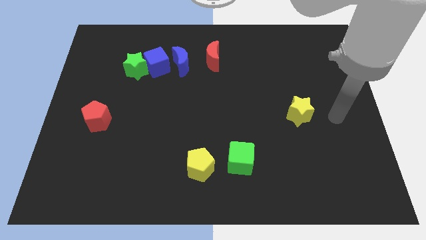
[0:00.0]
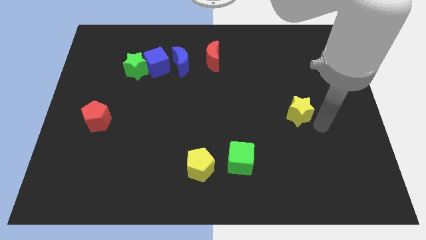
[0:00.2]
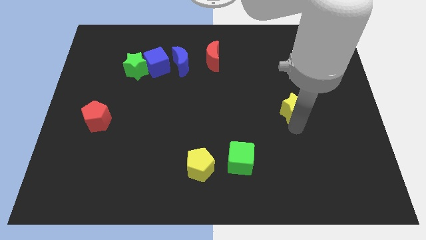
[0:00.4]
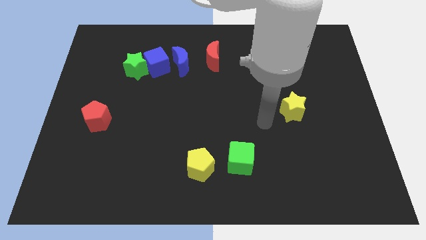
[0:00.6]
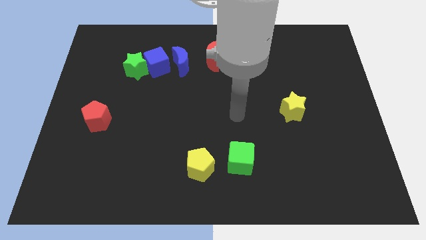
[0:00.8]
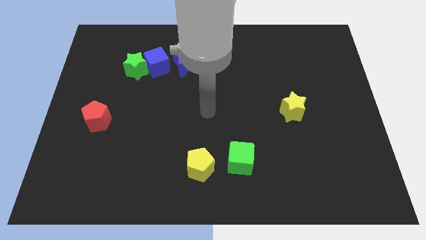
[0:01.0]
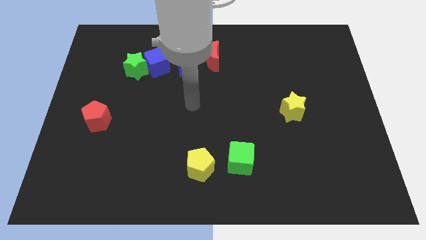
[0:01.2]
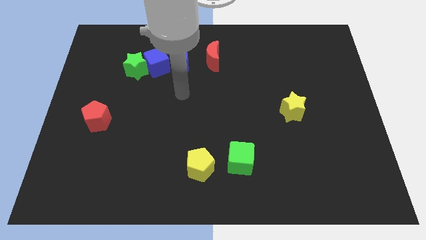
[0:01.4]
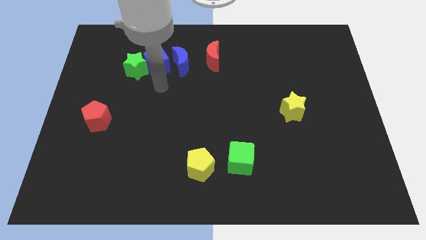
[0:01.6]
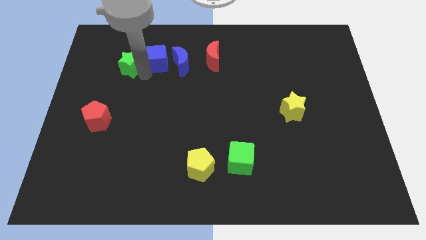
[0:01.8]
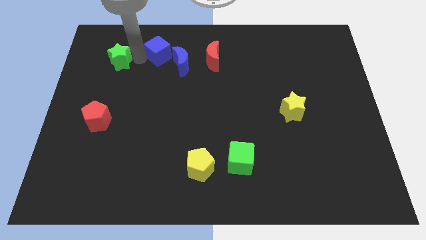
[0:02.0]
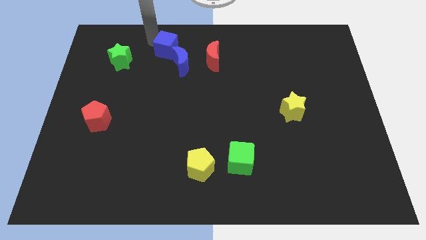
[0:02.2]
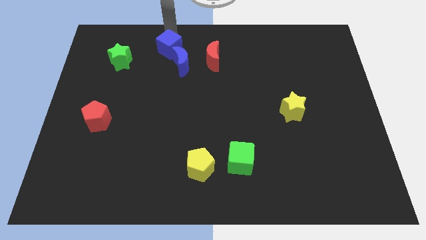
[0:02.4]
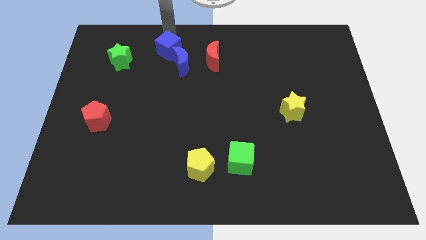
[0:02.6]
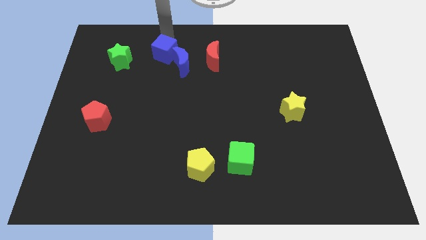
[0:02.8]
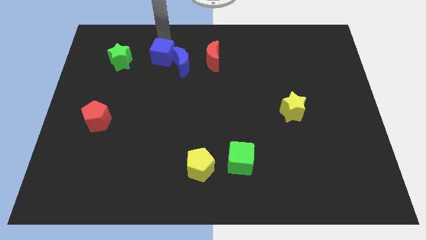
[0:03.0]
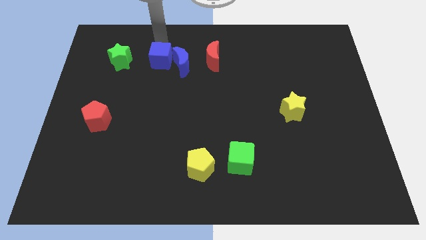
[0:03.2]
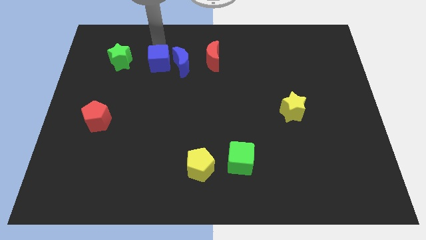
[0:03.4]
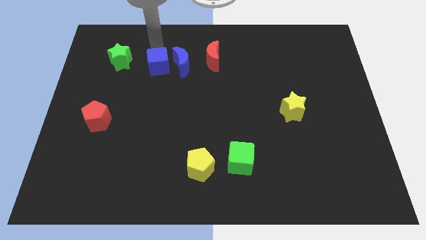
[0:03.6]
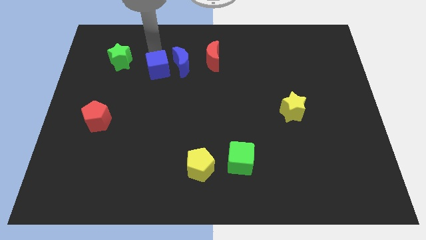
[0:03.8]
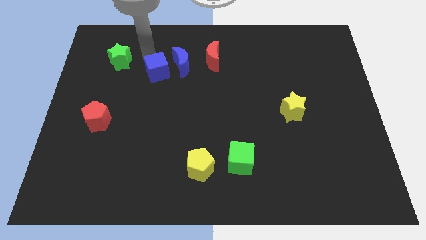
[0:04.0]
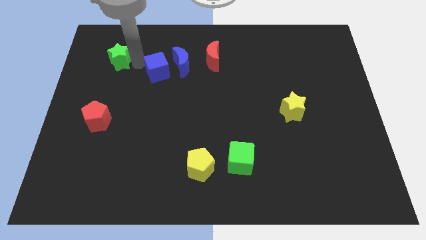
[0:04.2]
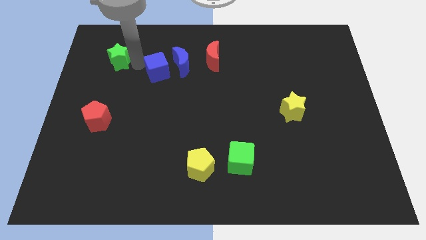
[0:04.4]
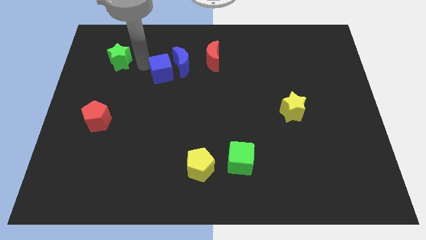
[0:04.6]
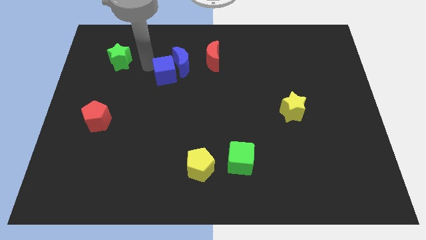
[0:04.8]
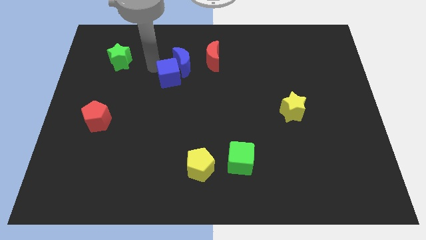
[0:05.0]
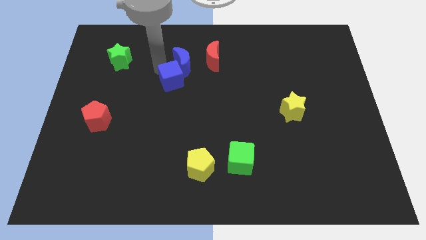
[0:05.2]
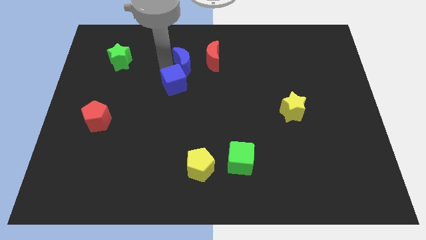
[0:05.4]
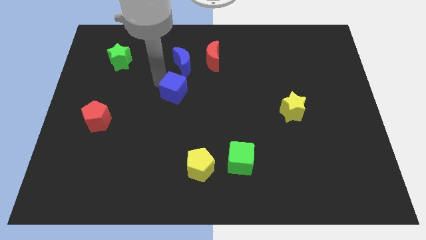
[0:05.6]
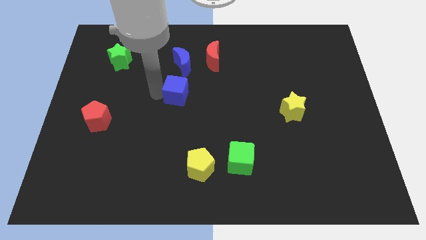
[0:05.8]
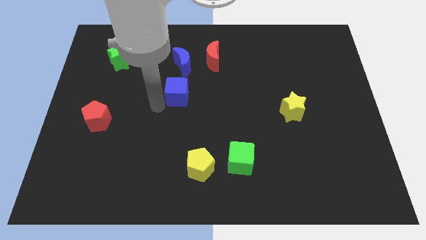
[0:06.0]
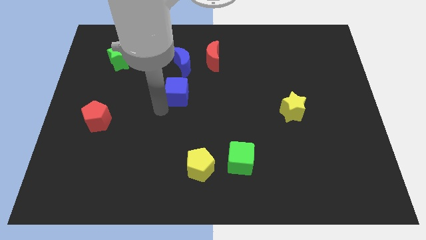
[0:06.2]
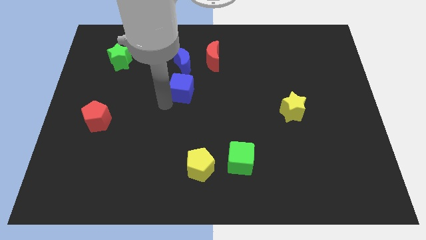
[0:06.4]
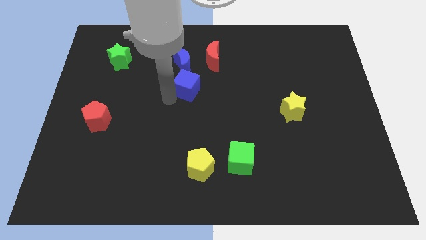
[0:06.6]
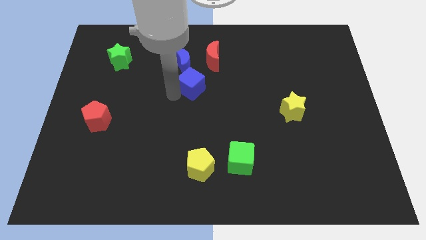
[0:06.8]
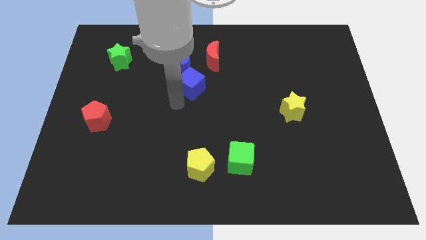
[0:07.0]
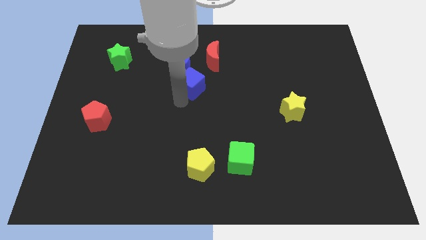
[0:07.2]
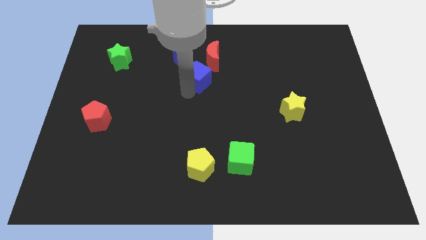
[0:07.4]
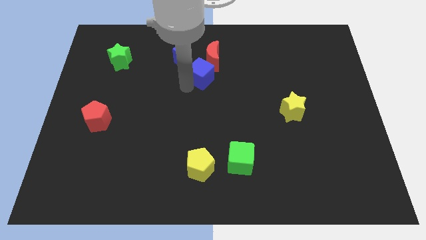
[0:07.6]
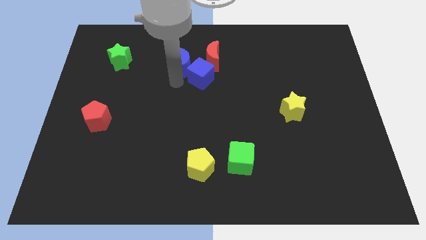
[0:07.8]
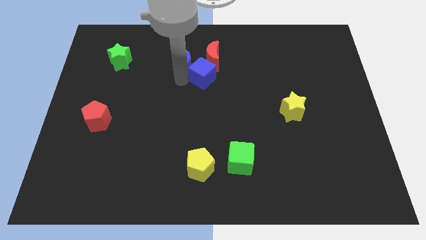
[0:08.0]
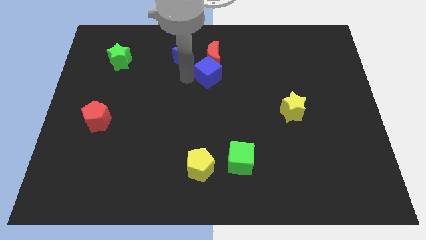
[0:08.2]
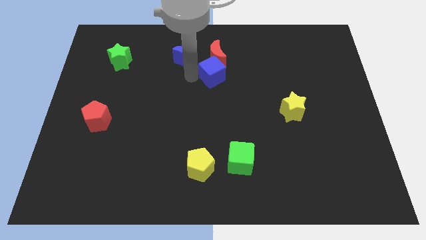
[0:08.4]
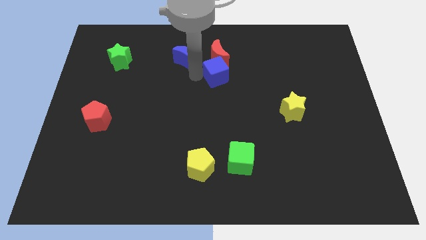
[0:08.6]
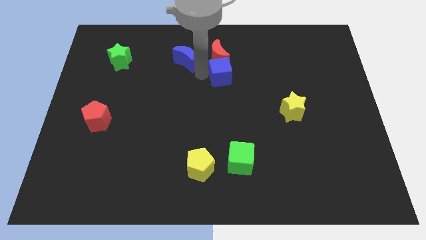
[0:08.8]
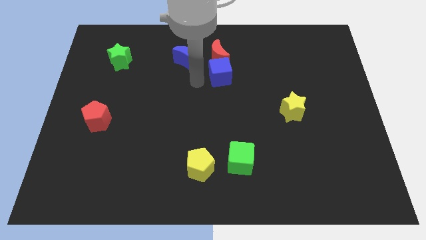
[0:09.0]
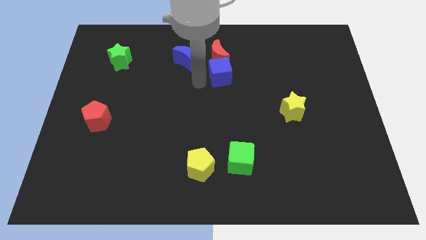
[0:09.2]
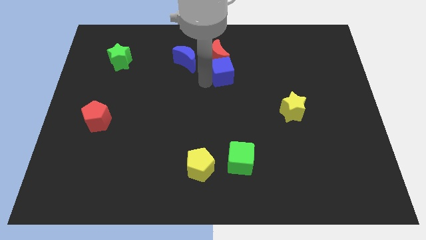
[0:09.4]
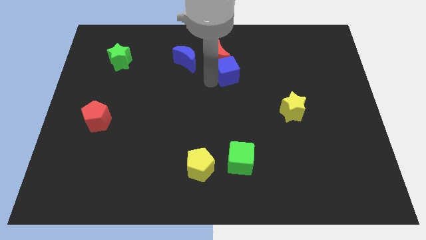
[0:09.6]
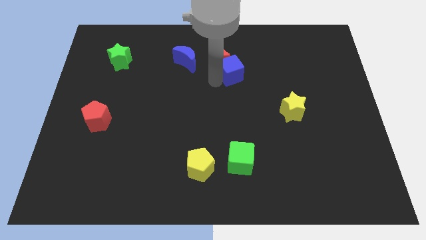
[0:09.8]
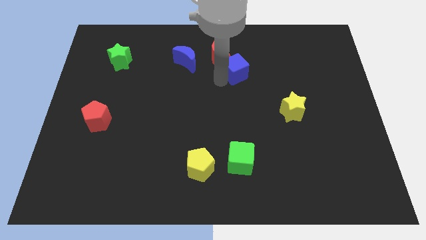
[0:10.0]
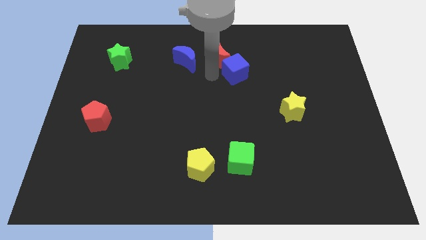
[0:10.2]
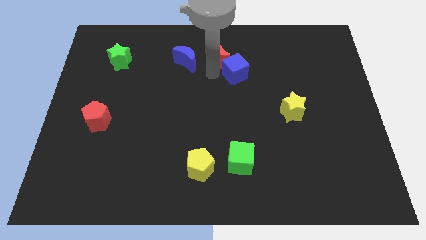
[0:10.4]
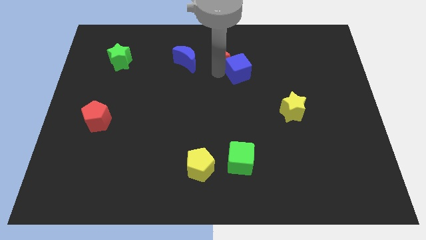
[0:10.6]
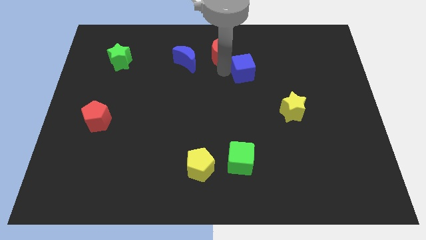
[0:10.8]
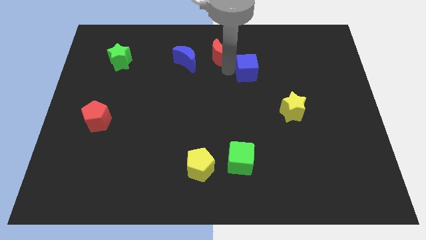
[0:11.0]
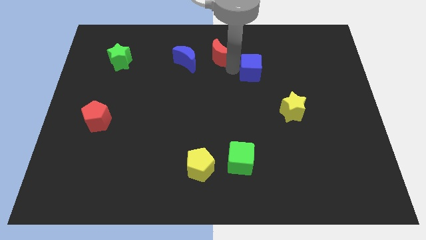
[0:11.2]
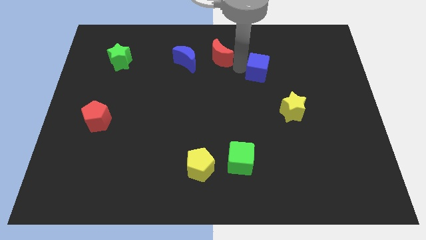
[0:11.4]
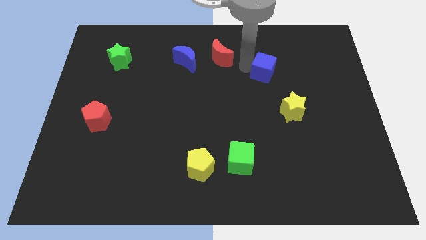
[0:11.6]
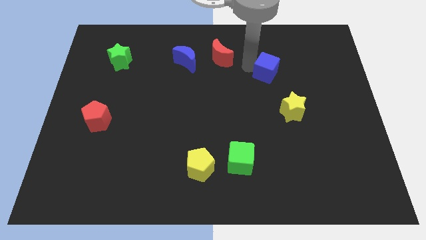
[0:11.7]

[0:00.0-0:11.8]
put the blue cube to the top side of the yellow star

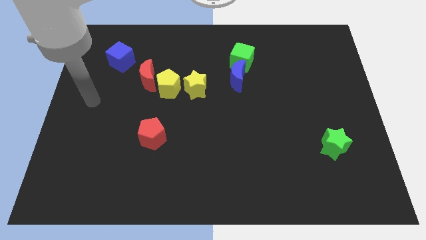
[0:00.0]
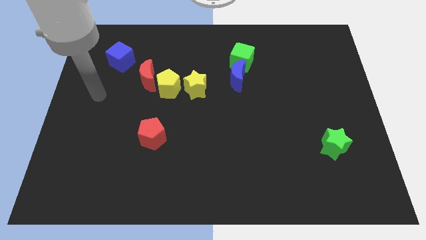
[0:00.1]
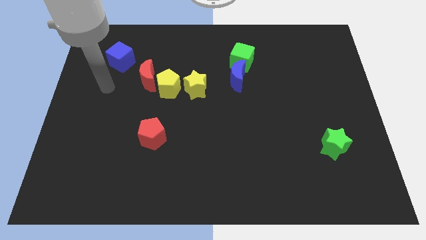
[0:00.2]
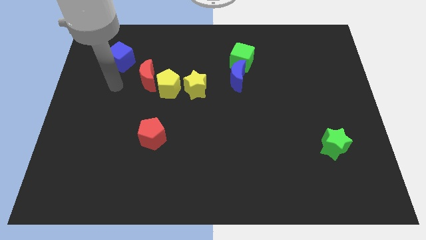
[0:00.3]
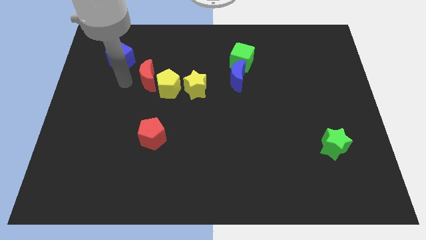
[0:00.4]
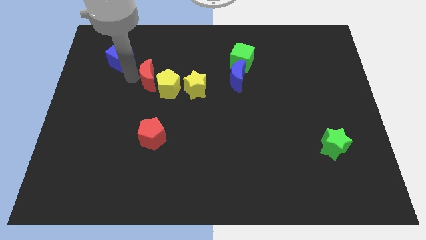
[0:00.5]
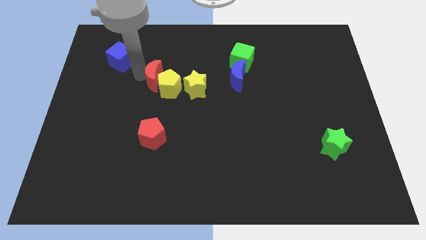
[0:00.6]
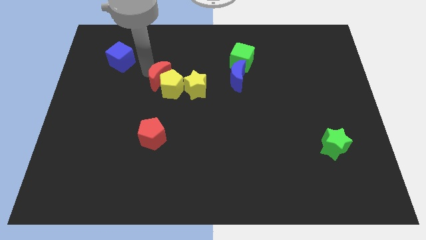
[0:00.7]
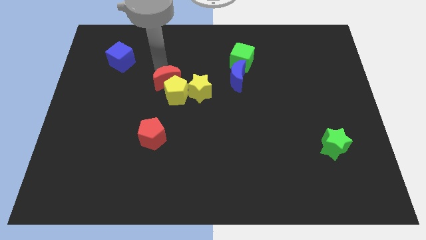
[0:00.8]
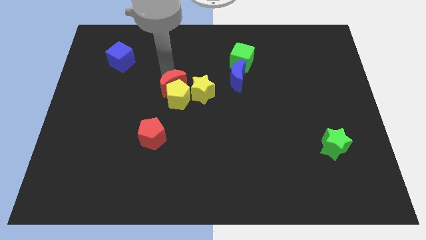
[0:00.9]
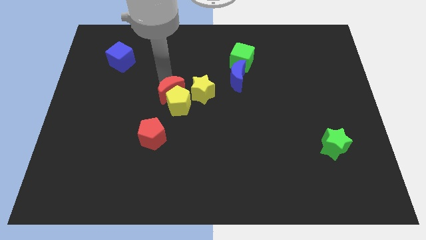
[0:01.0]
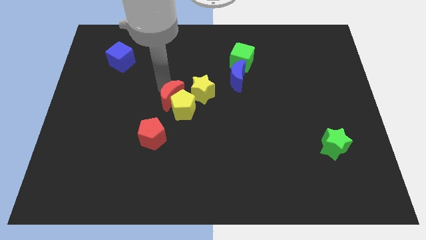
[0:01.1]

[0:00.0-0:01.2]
slide the yellow pentagon to the bottom side of the yellow star
